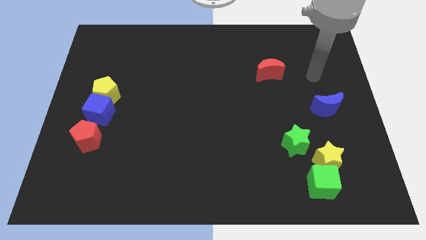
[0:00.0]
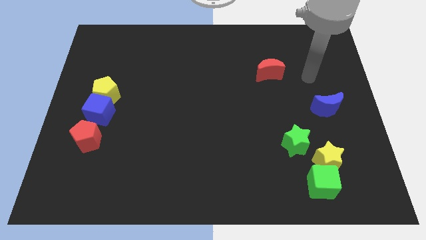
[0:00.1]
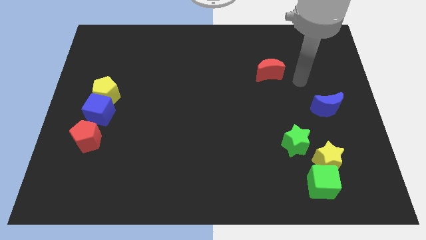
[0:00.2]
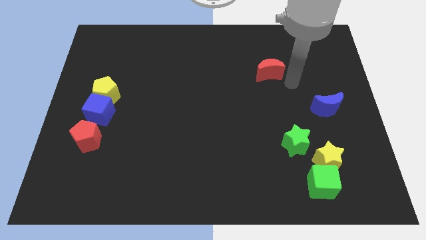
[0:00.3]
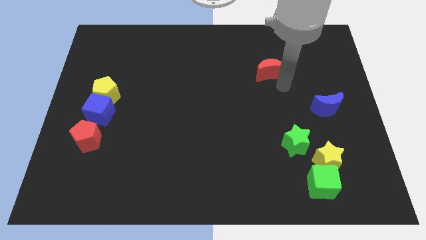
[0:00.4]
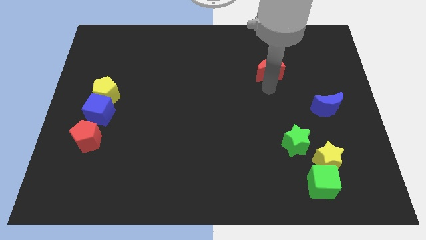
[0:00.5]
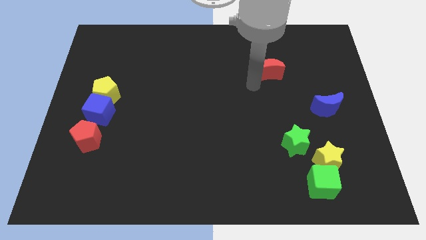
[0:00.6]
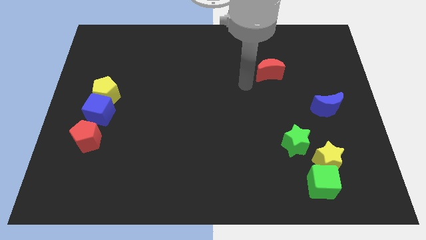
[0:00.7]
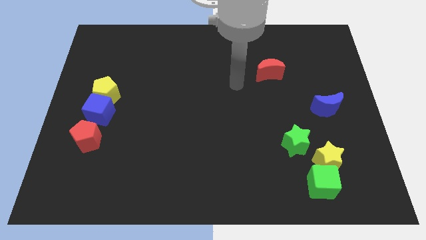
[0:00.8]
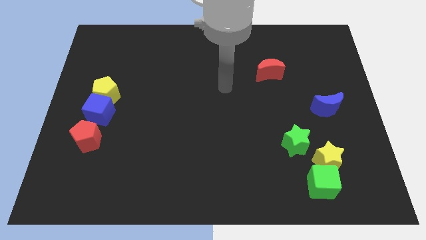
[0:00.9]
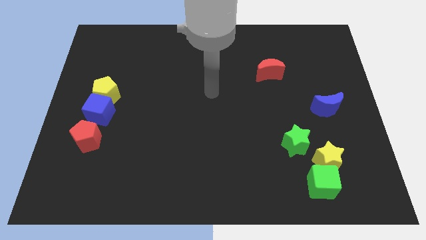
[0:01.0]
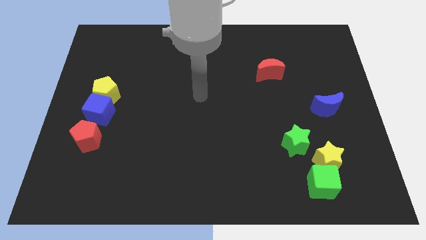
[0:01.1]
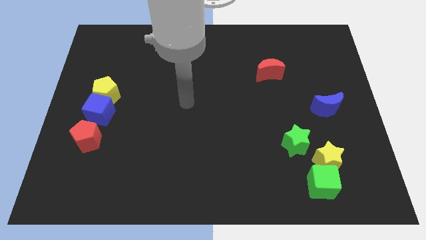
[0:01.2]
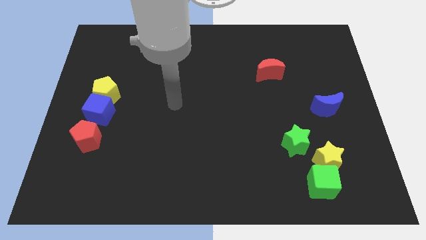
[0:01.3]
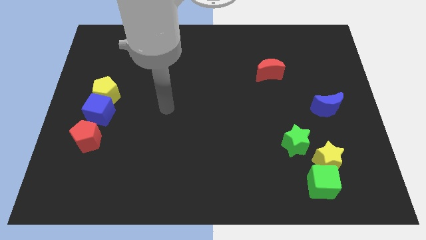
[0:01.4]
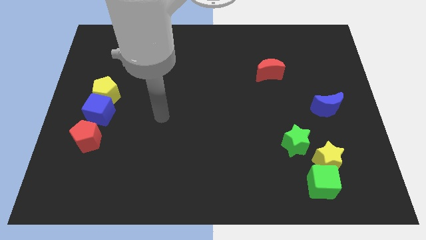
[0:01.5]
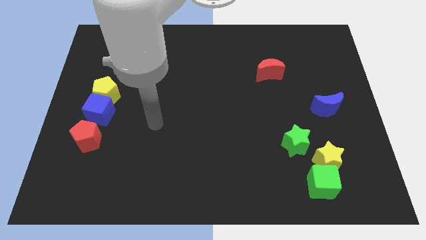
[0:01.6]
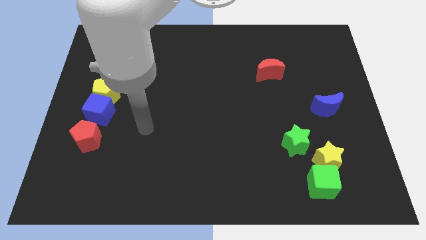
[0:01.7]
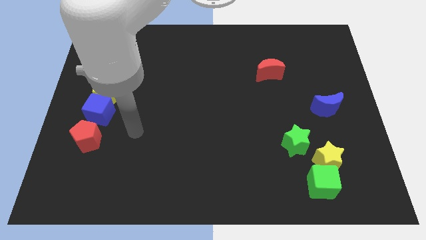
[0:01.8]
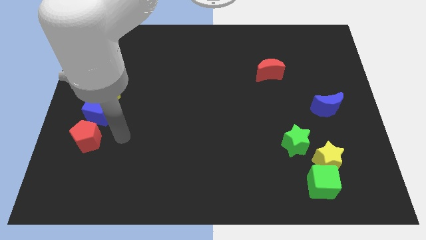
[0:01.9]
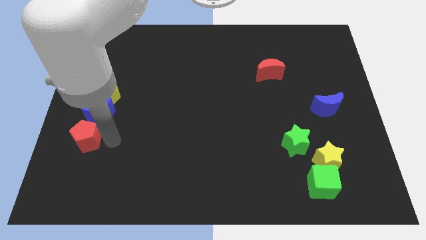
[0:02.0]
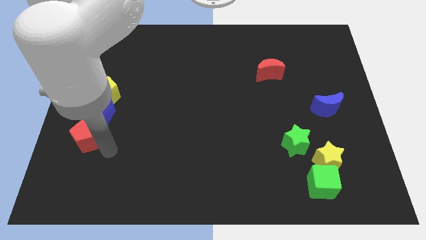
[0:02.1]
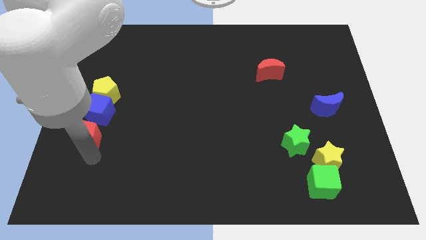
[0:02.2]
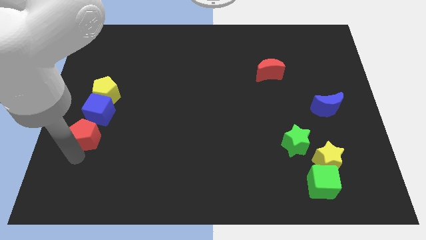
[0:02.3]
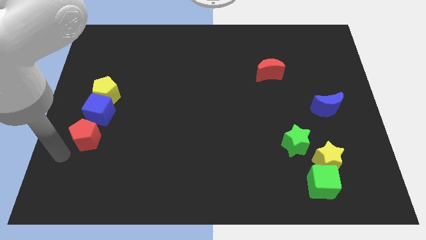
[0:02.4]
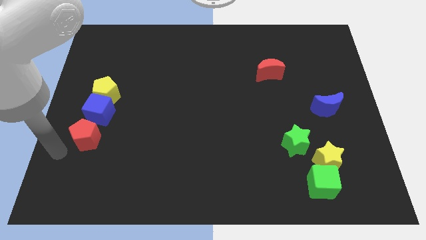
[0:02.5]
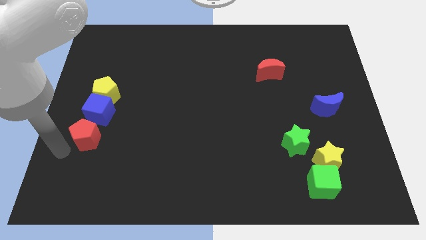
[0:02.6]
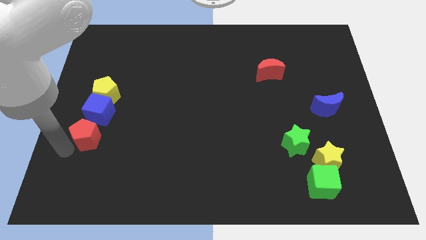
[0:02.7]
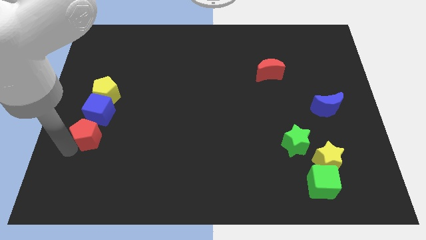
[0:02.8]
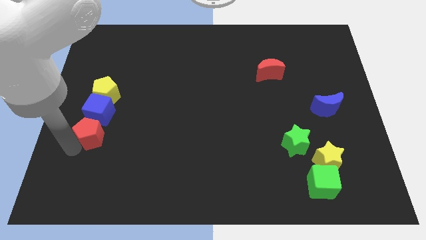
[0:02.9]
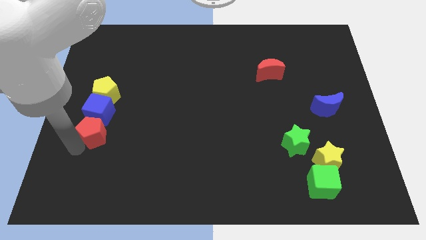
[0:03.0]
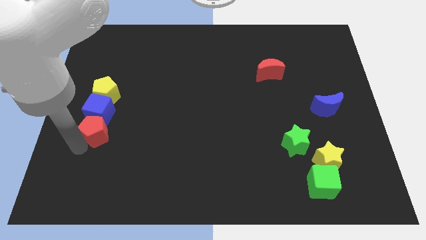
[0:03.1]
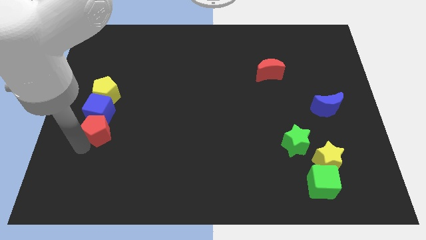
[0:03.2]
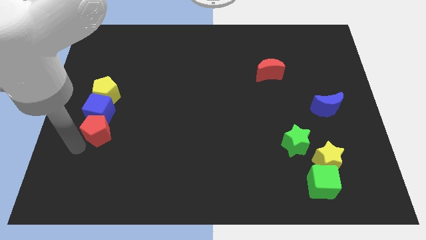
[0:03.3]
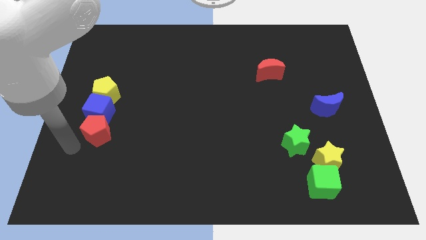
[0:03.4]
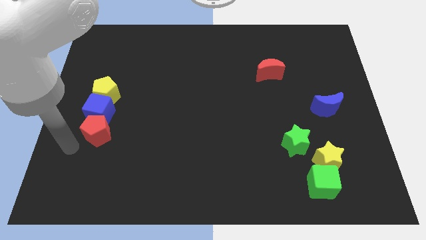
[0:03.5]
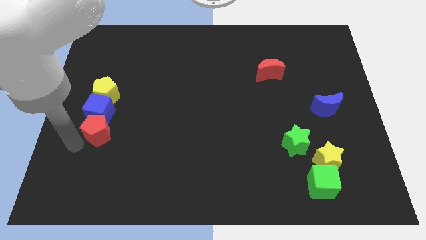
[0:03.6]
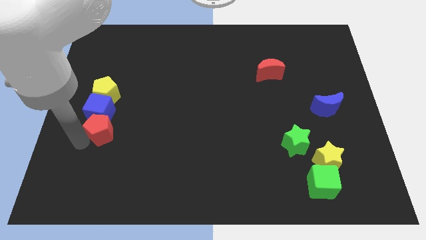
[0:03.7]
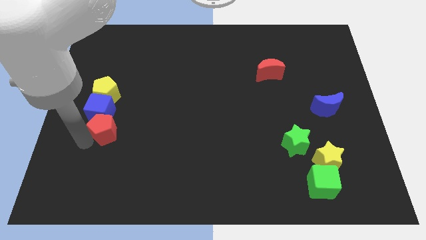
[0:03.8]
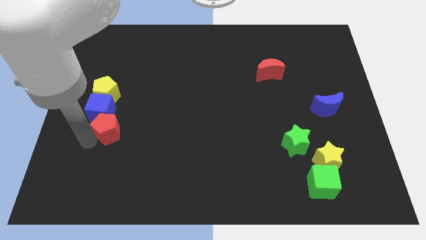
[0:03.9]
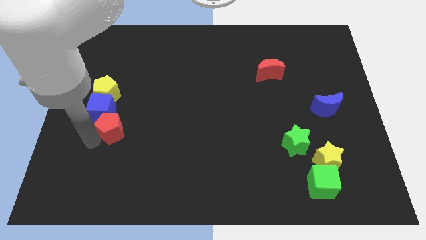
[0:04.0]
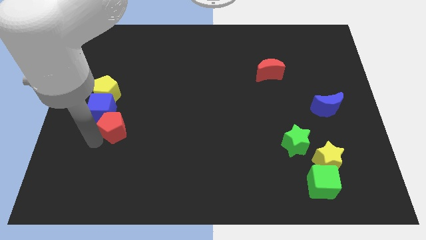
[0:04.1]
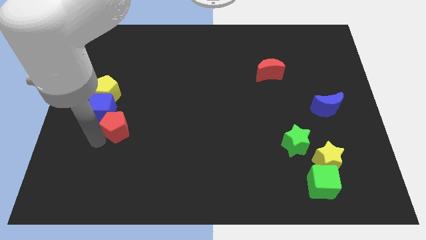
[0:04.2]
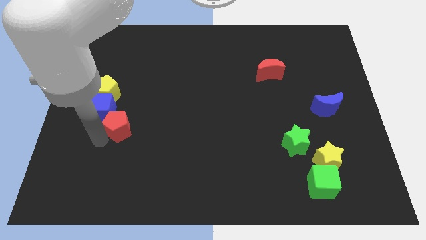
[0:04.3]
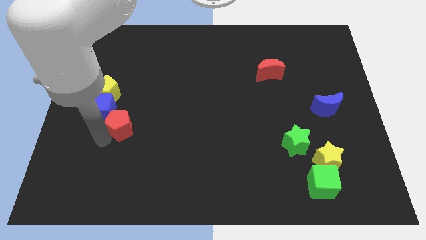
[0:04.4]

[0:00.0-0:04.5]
push the red pentagon somewhat upwards and then to the right

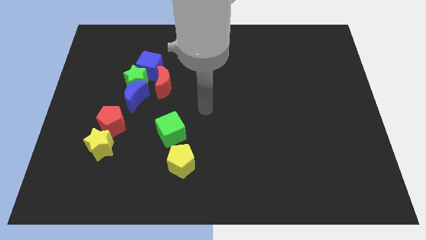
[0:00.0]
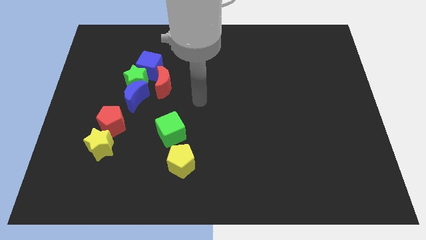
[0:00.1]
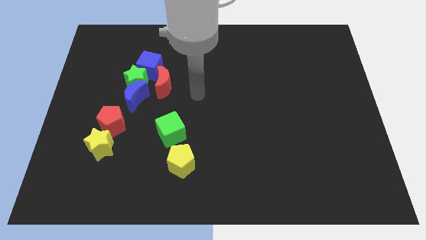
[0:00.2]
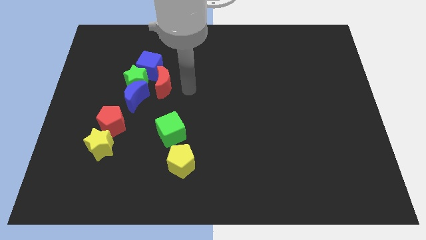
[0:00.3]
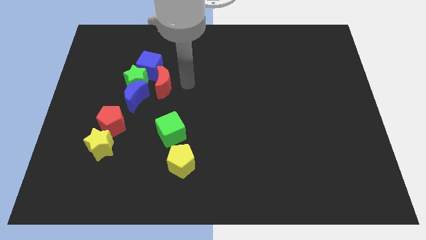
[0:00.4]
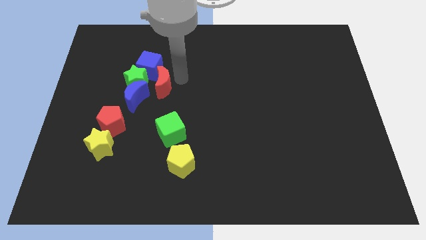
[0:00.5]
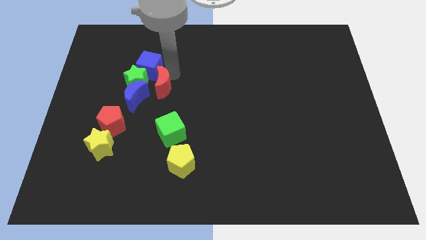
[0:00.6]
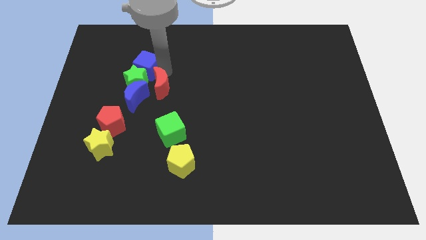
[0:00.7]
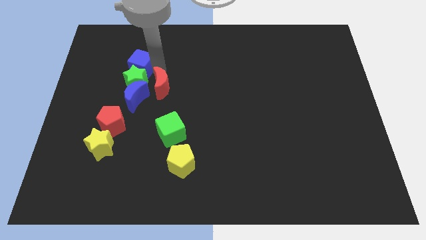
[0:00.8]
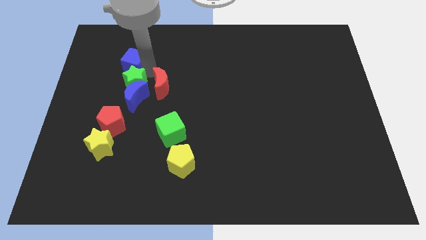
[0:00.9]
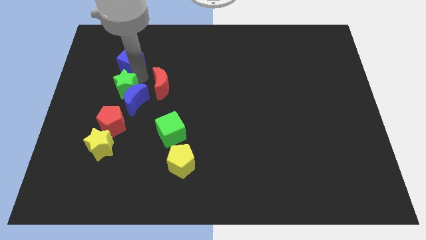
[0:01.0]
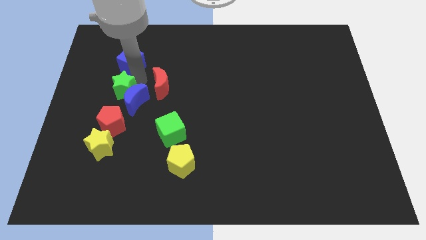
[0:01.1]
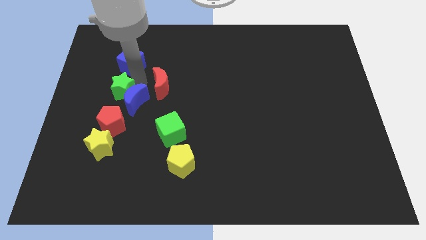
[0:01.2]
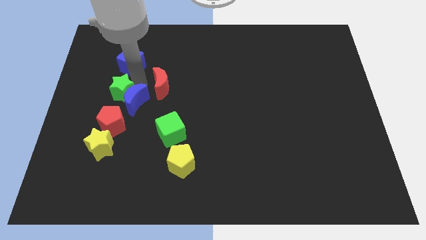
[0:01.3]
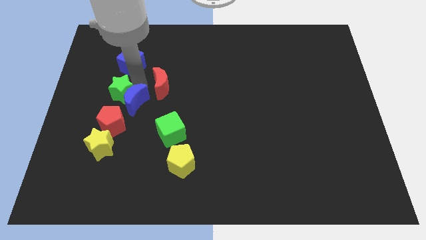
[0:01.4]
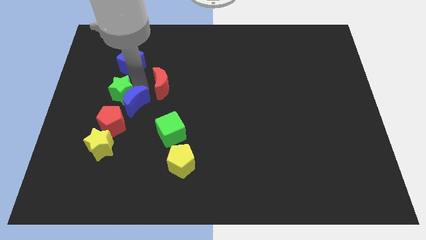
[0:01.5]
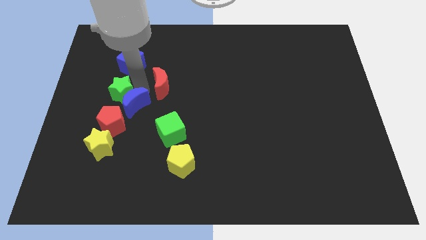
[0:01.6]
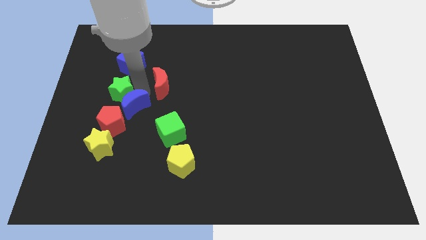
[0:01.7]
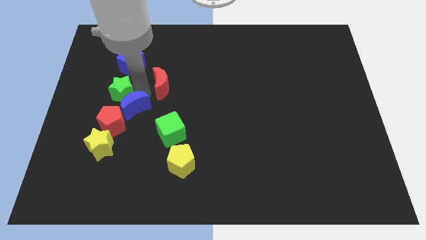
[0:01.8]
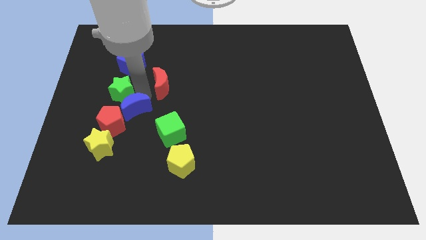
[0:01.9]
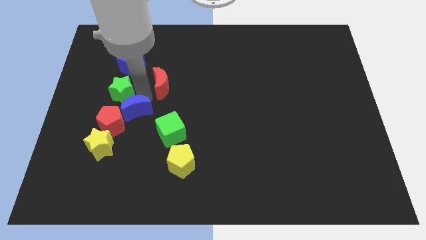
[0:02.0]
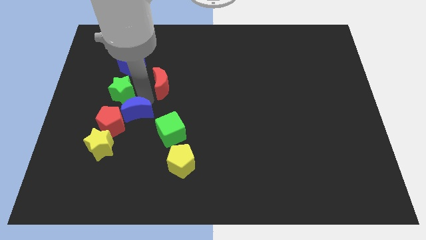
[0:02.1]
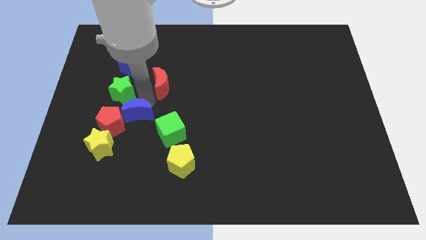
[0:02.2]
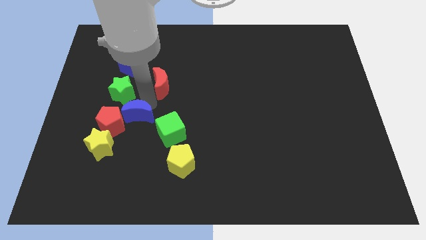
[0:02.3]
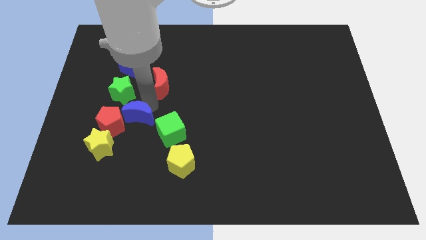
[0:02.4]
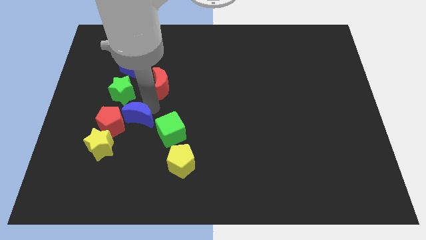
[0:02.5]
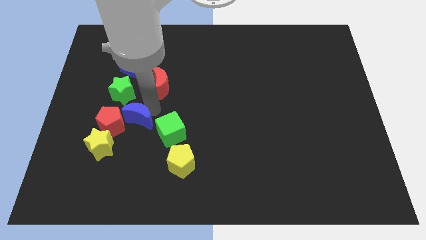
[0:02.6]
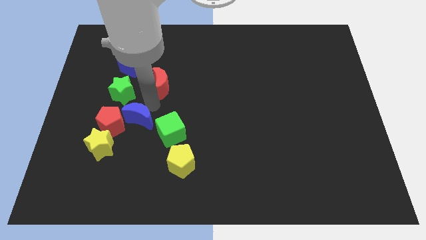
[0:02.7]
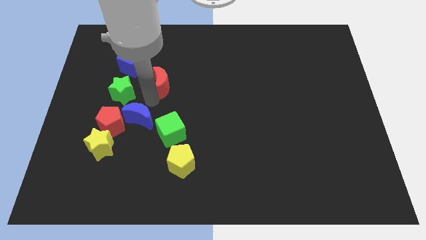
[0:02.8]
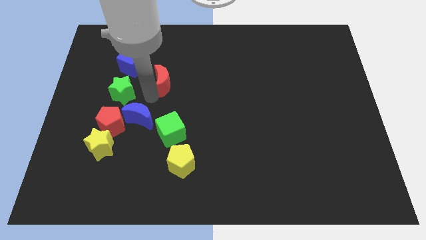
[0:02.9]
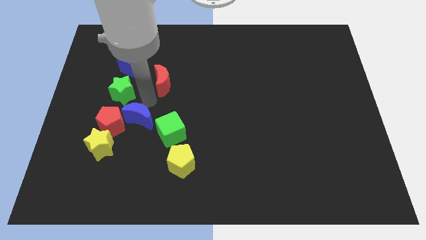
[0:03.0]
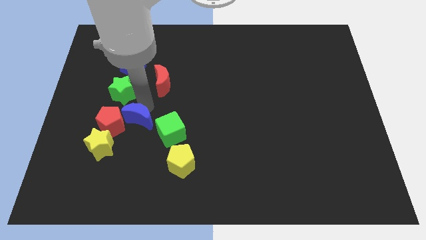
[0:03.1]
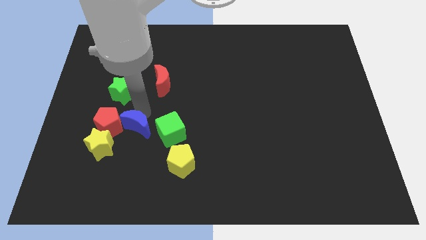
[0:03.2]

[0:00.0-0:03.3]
slightly push the blue moon downwards

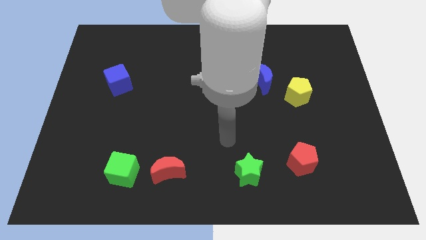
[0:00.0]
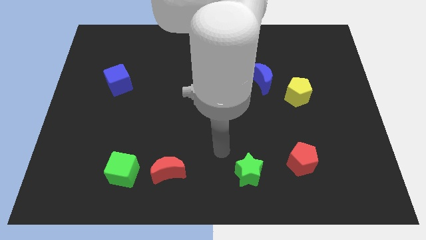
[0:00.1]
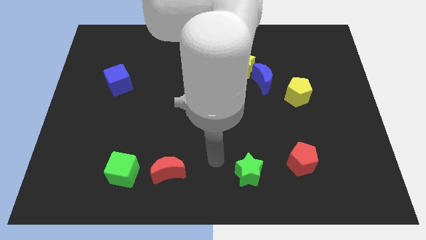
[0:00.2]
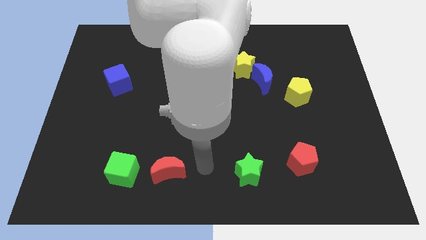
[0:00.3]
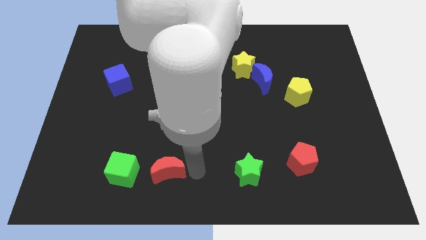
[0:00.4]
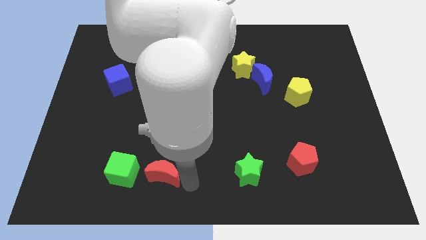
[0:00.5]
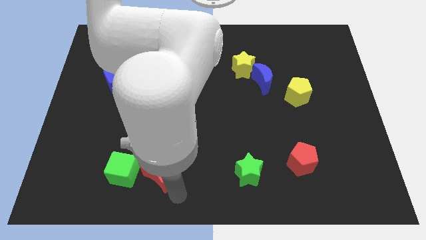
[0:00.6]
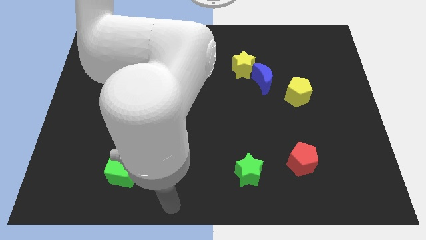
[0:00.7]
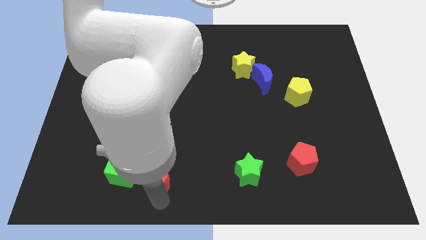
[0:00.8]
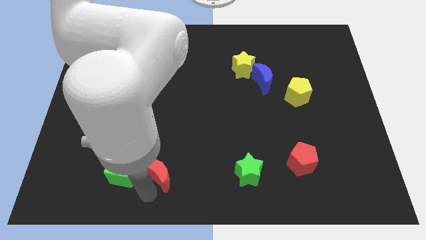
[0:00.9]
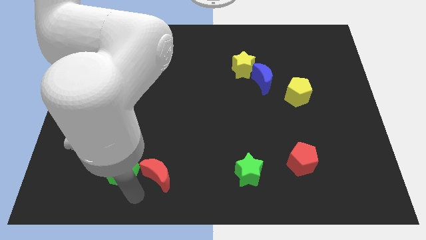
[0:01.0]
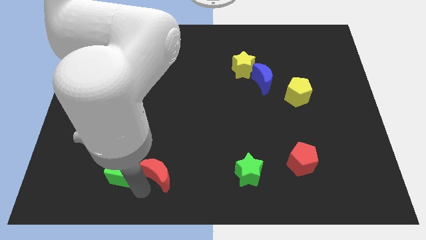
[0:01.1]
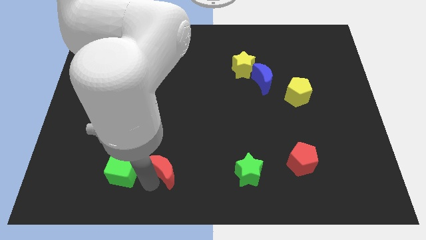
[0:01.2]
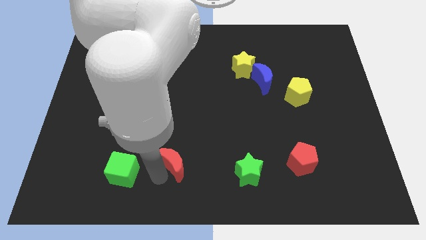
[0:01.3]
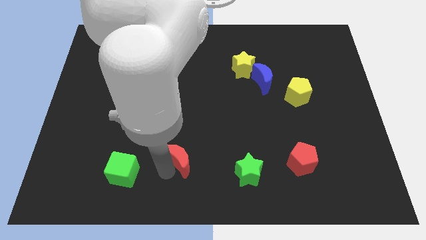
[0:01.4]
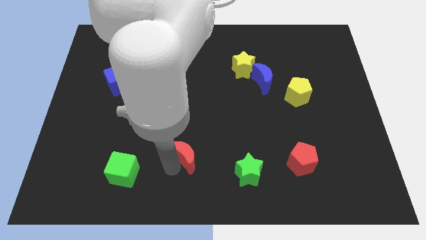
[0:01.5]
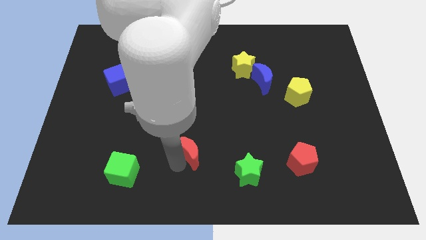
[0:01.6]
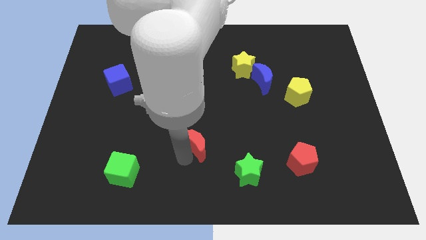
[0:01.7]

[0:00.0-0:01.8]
push the red moon slightly upwards and right diagonally
